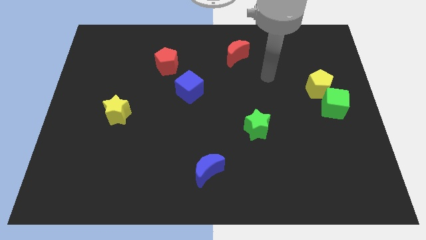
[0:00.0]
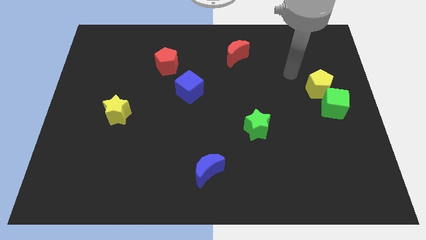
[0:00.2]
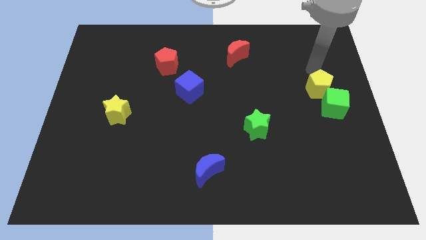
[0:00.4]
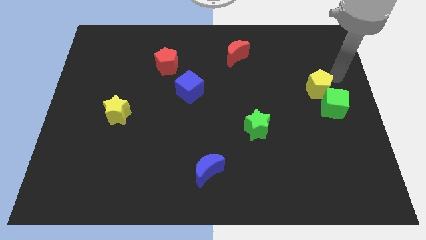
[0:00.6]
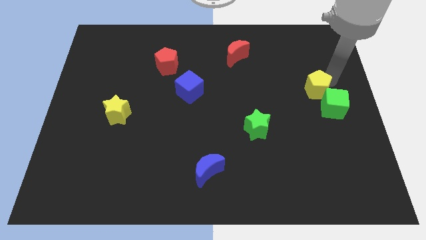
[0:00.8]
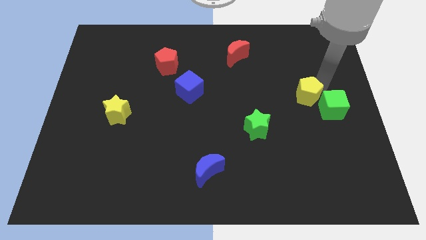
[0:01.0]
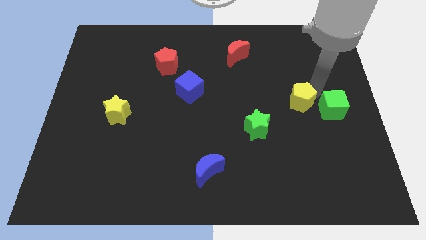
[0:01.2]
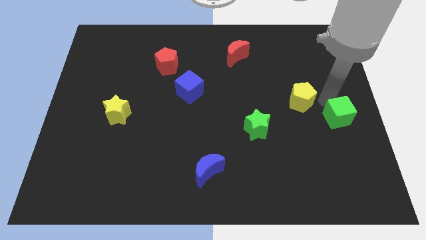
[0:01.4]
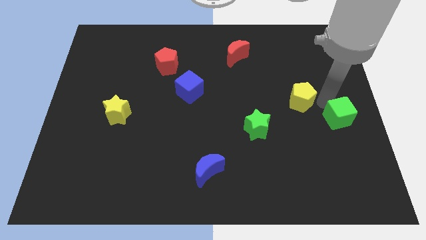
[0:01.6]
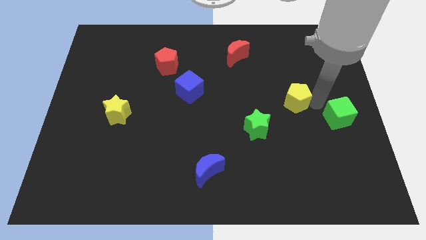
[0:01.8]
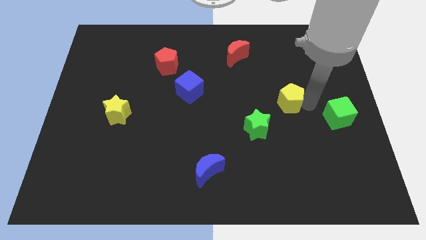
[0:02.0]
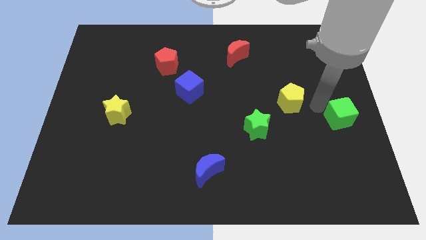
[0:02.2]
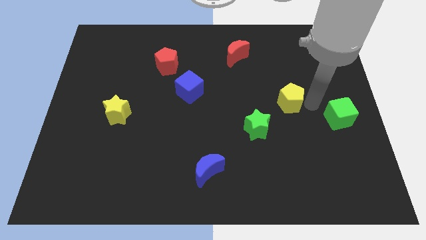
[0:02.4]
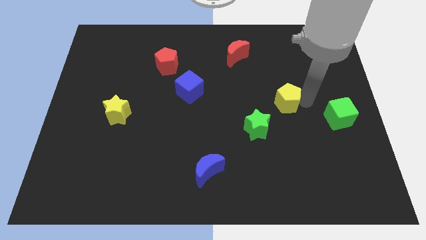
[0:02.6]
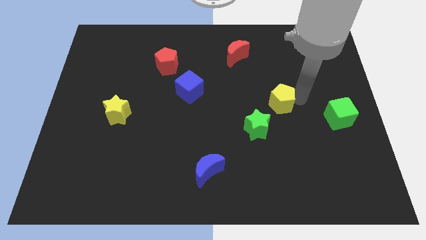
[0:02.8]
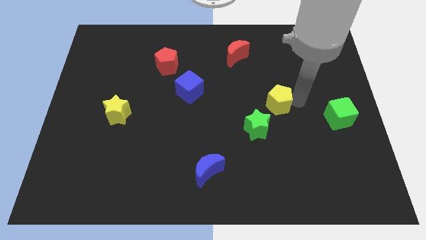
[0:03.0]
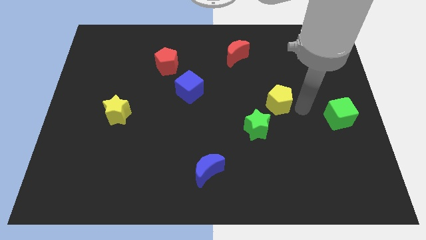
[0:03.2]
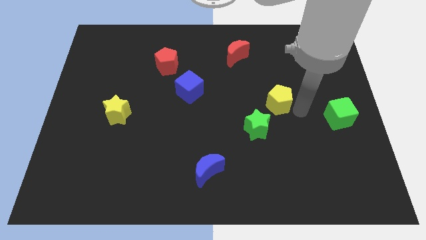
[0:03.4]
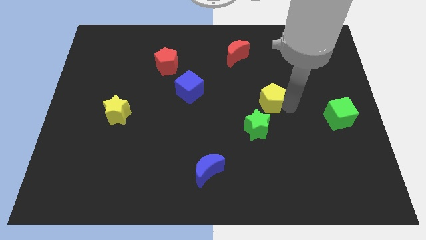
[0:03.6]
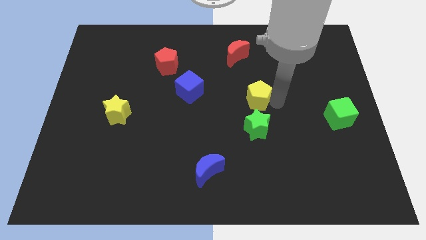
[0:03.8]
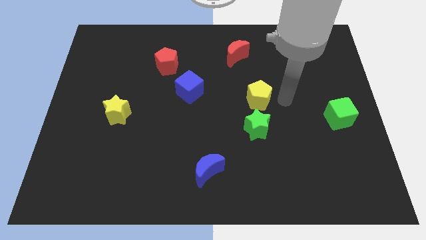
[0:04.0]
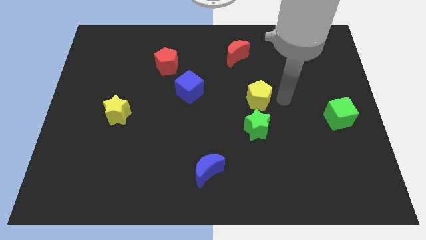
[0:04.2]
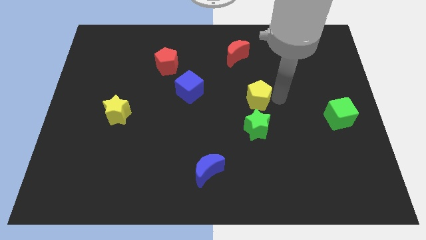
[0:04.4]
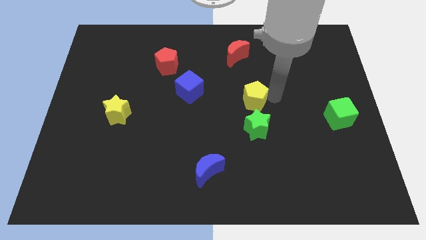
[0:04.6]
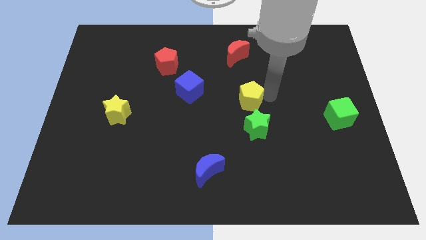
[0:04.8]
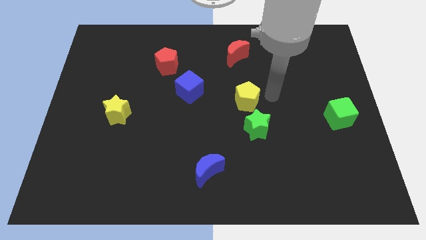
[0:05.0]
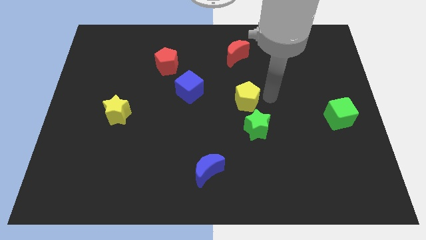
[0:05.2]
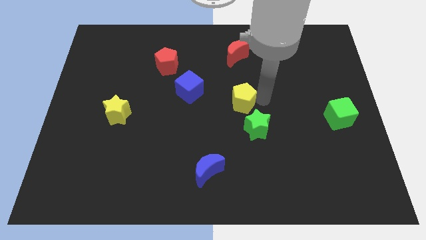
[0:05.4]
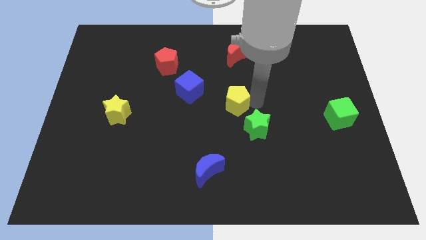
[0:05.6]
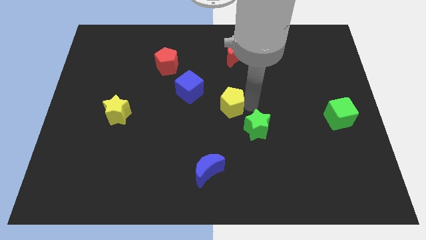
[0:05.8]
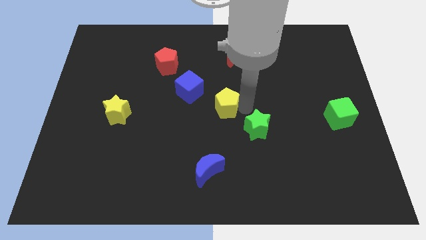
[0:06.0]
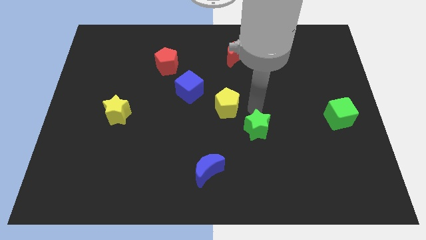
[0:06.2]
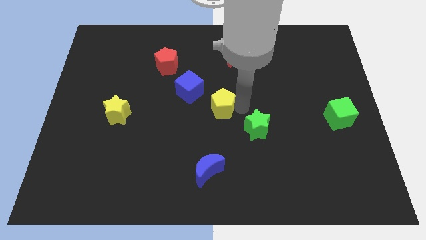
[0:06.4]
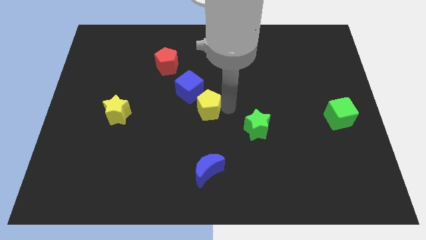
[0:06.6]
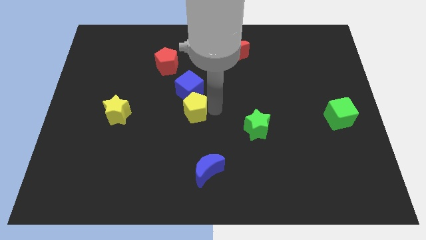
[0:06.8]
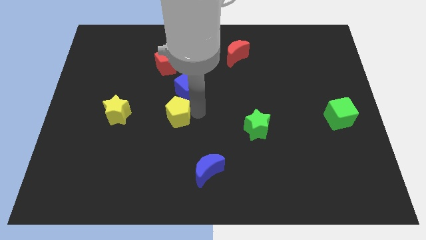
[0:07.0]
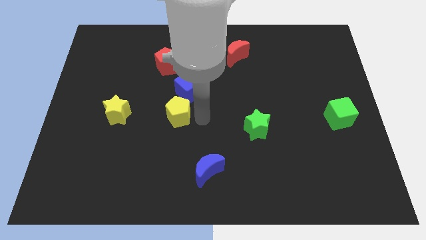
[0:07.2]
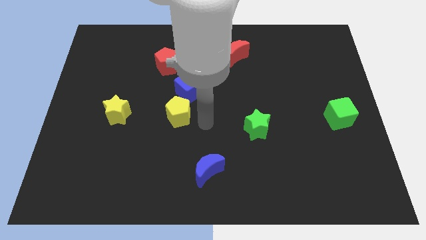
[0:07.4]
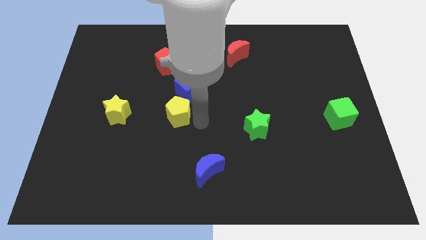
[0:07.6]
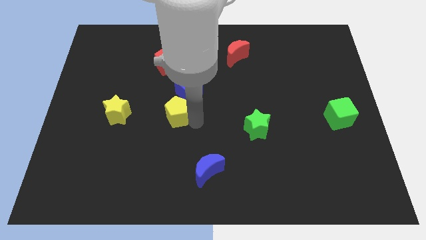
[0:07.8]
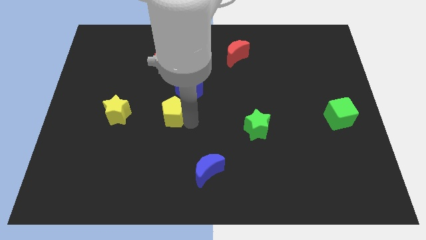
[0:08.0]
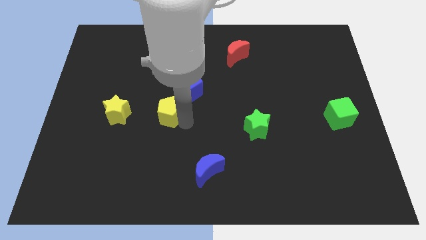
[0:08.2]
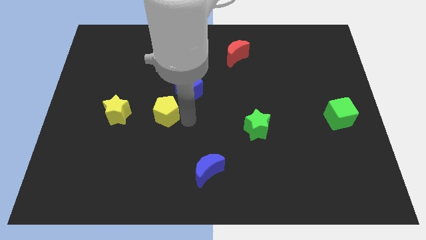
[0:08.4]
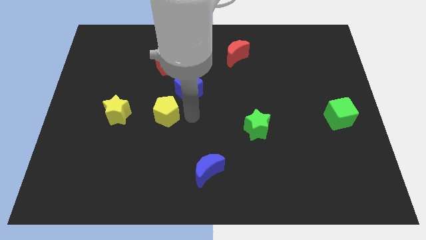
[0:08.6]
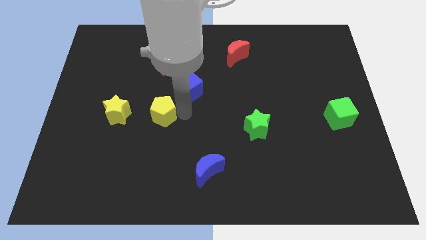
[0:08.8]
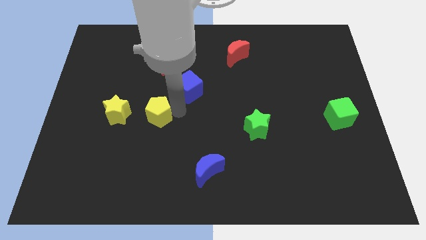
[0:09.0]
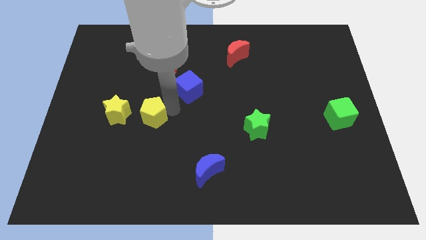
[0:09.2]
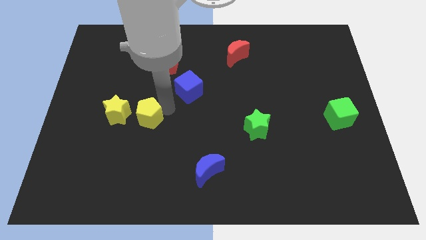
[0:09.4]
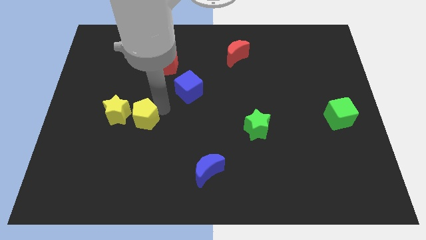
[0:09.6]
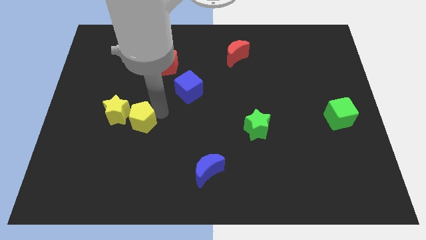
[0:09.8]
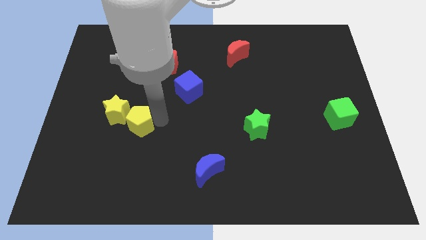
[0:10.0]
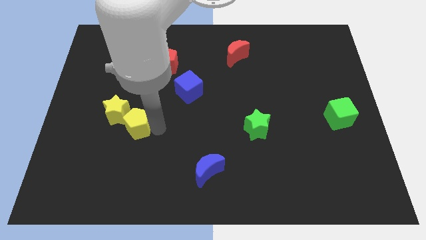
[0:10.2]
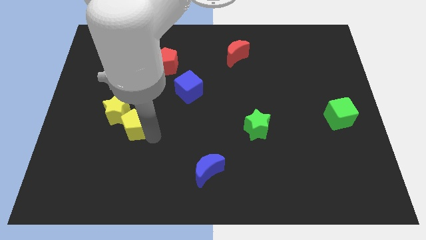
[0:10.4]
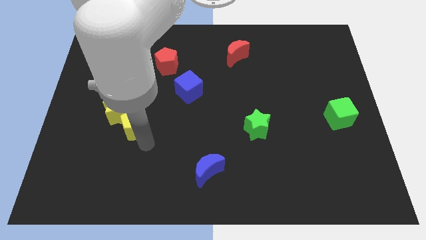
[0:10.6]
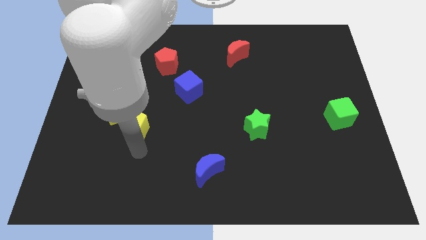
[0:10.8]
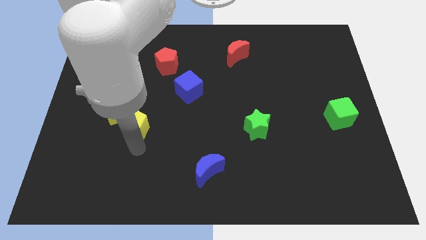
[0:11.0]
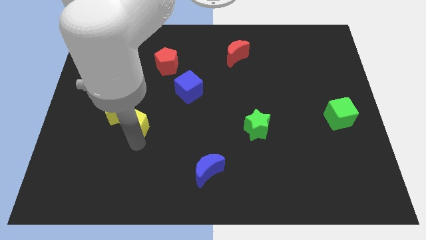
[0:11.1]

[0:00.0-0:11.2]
put the yellow pentagon close to the yellow star

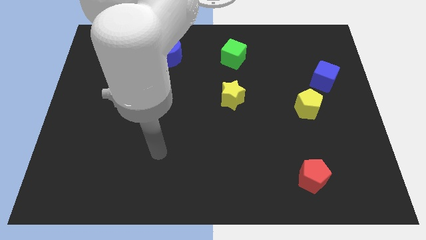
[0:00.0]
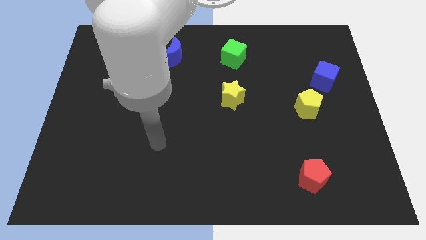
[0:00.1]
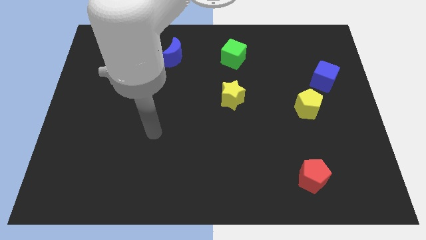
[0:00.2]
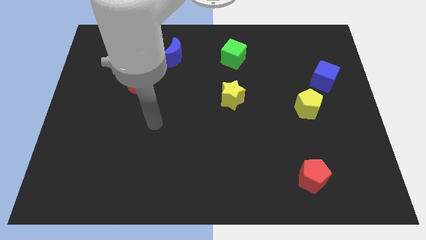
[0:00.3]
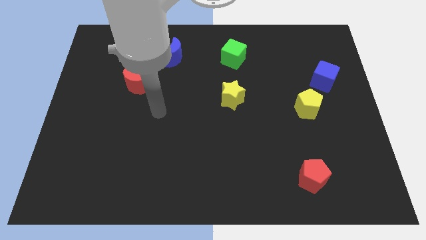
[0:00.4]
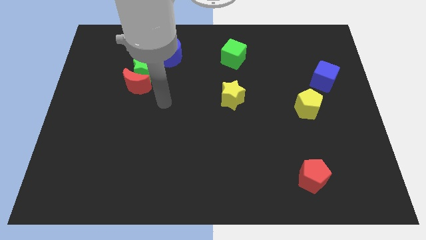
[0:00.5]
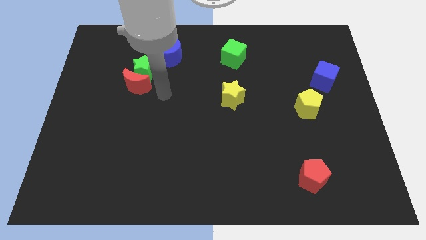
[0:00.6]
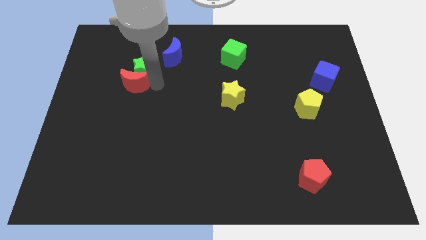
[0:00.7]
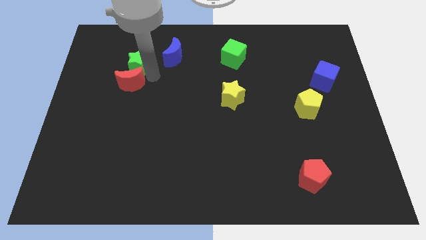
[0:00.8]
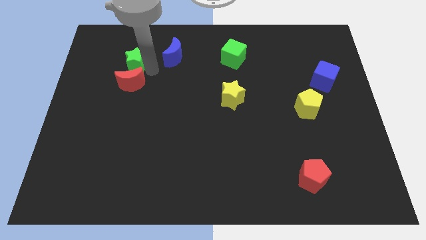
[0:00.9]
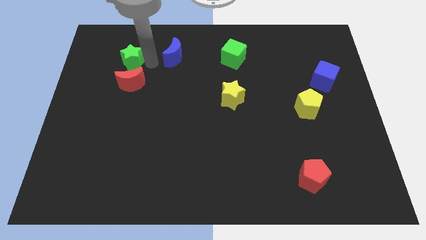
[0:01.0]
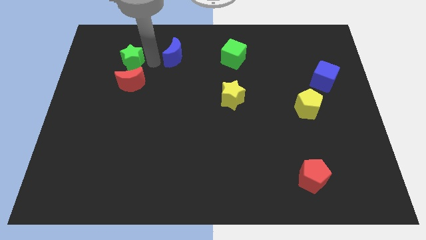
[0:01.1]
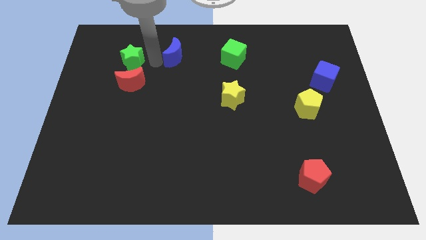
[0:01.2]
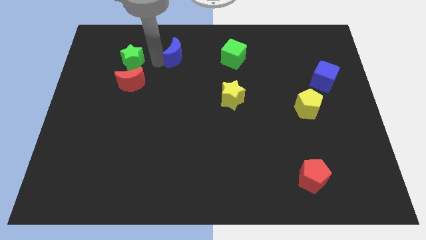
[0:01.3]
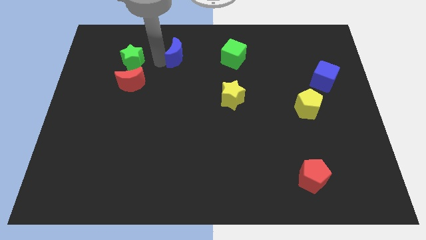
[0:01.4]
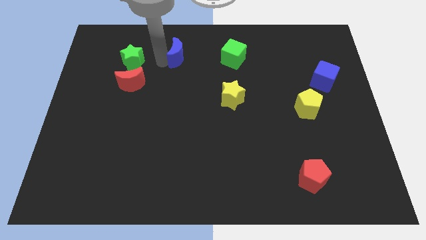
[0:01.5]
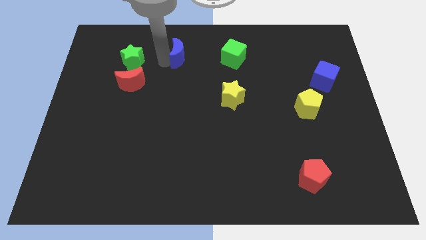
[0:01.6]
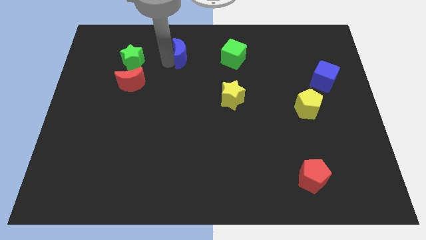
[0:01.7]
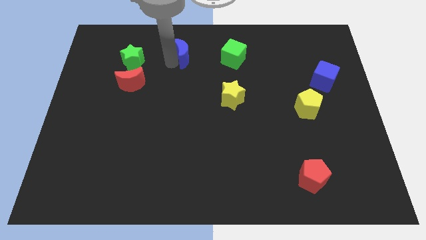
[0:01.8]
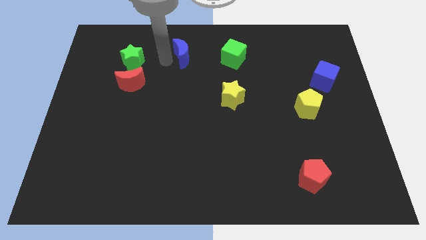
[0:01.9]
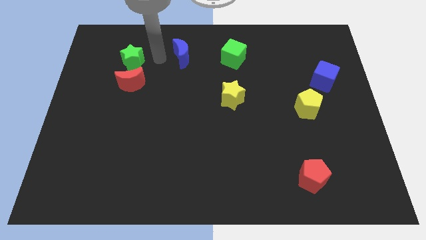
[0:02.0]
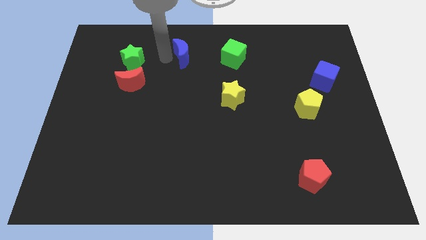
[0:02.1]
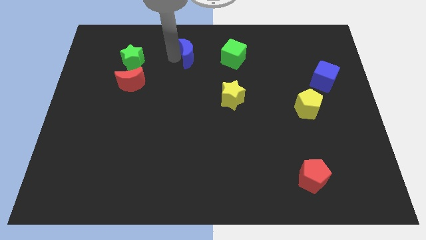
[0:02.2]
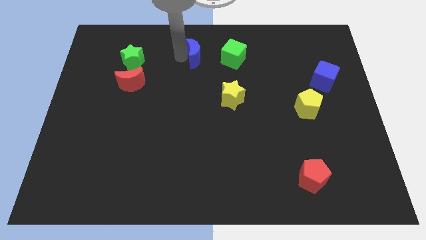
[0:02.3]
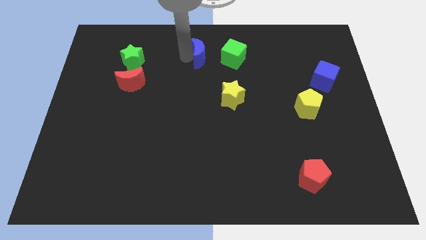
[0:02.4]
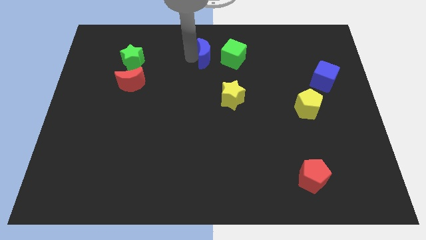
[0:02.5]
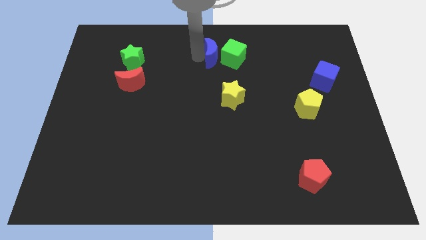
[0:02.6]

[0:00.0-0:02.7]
push the blue moon towards the green cube
